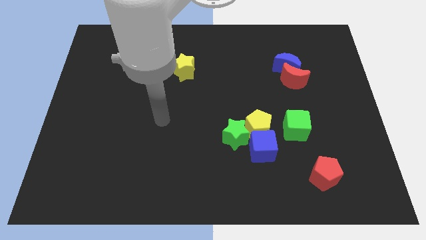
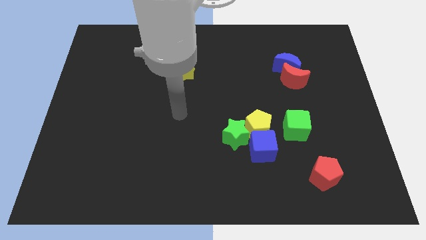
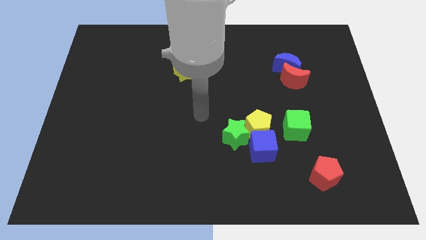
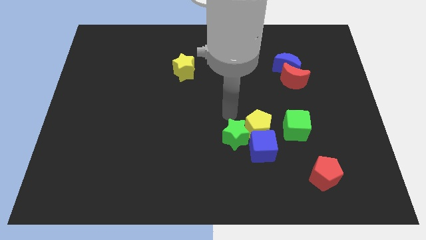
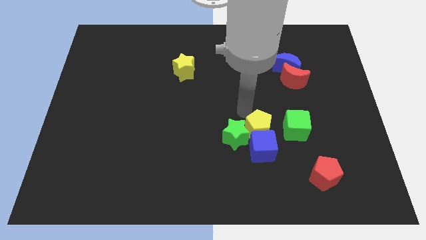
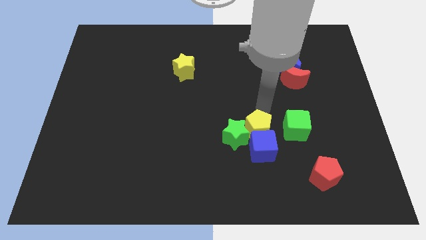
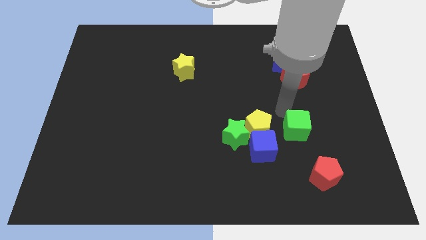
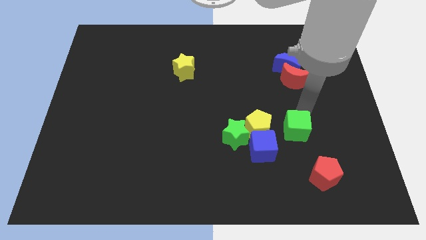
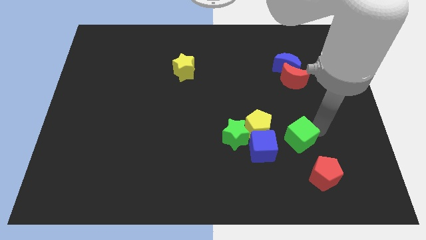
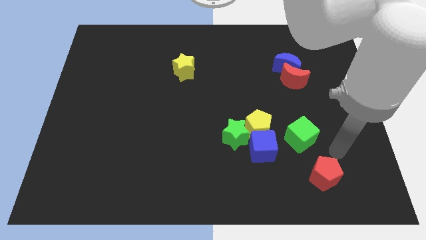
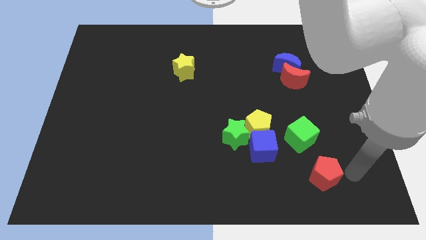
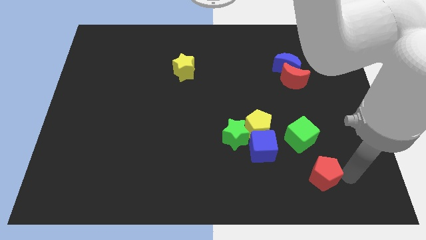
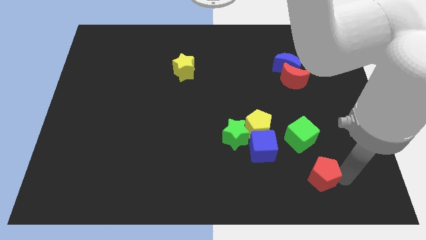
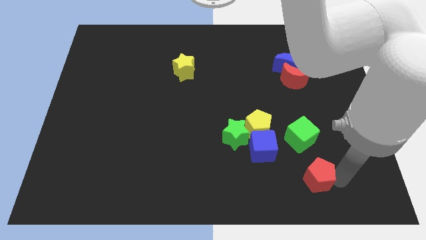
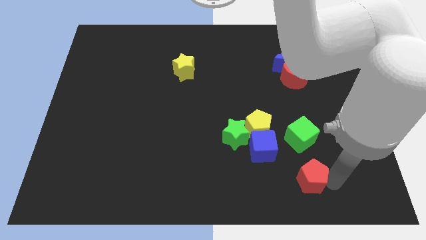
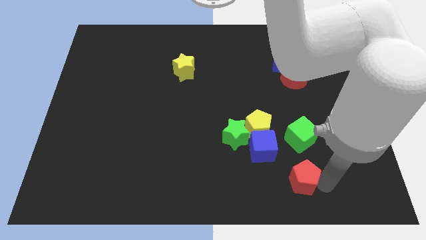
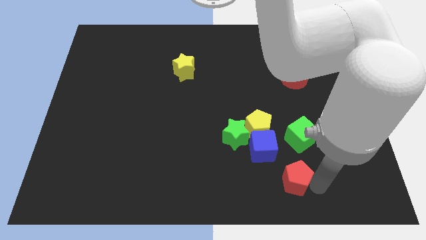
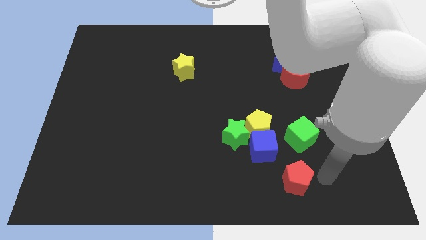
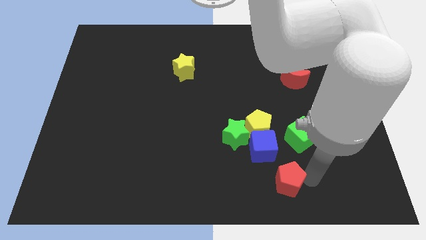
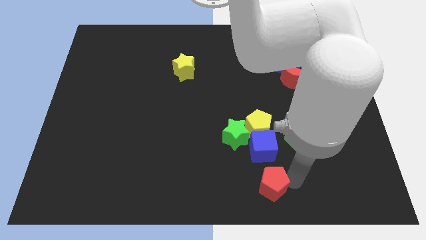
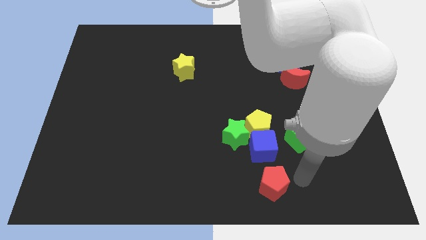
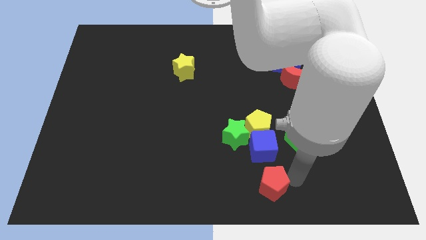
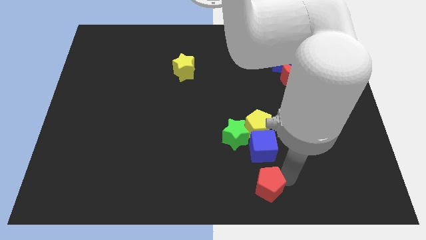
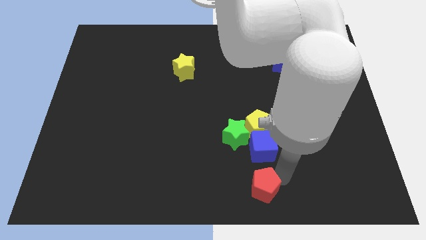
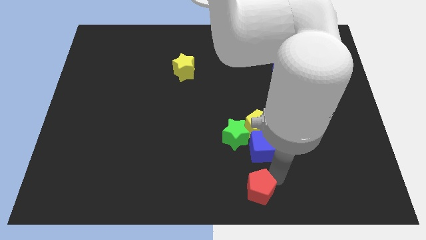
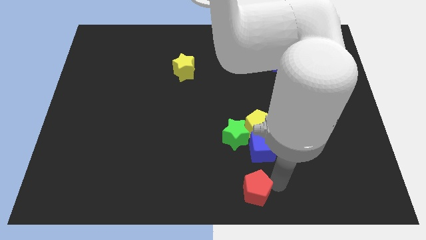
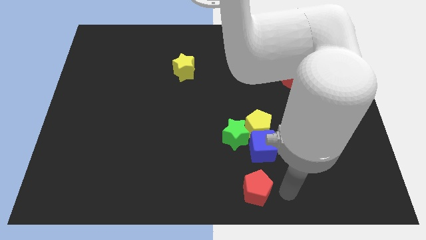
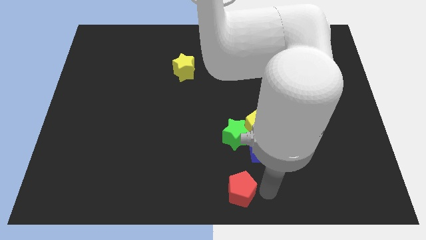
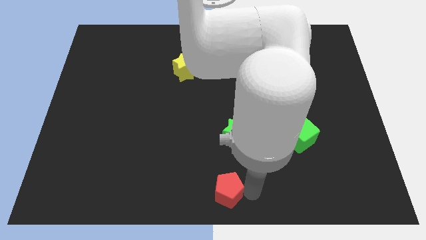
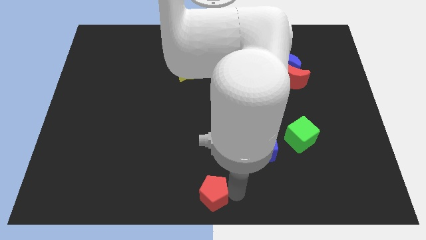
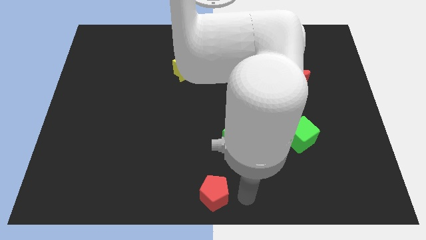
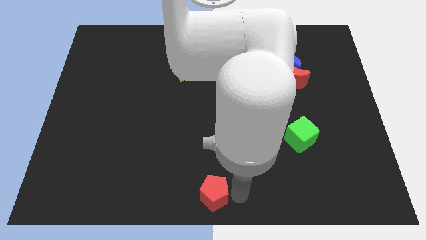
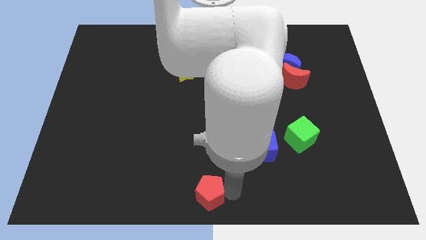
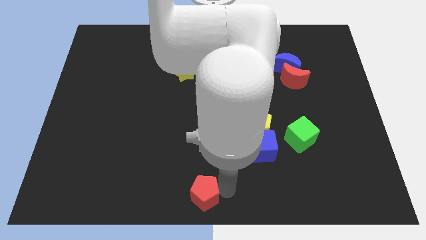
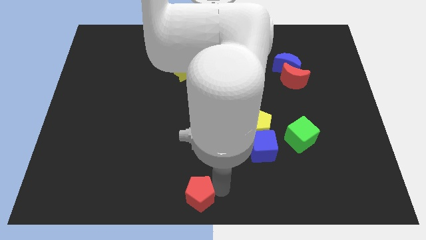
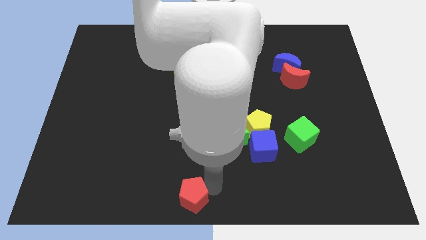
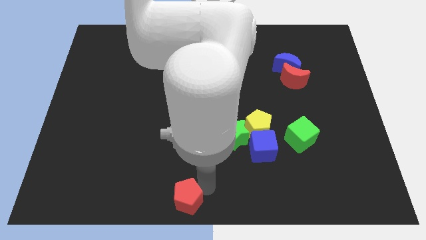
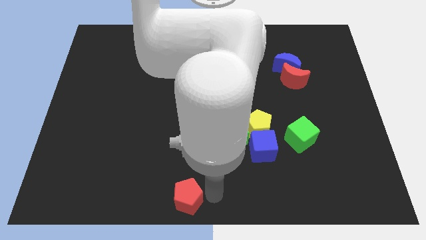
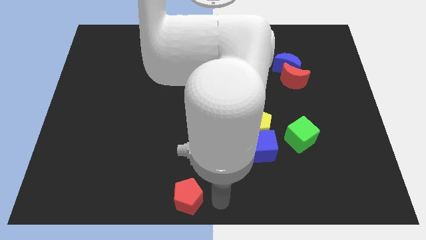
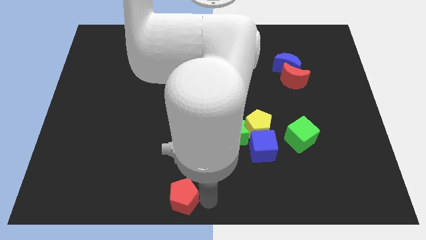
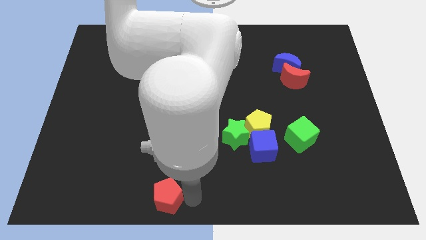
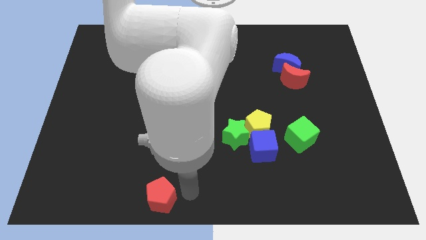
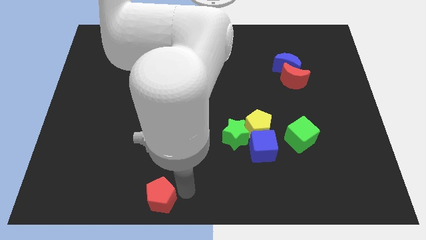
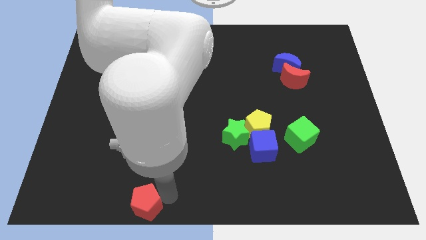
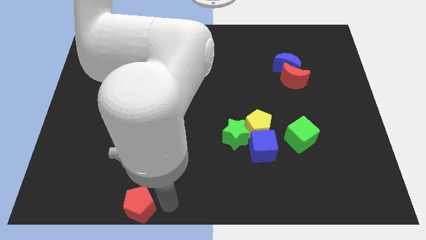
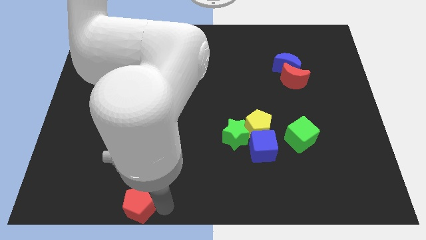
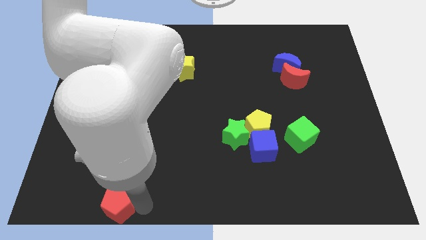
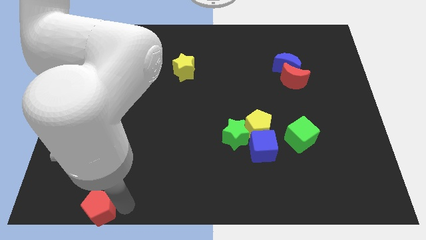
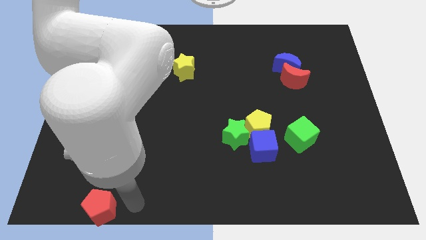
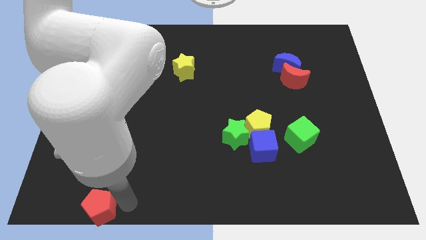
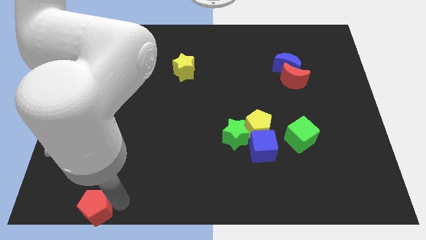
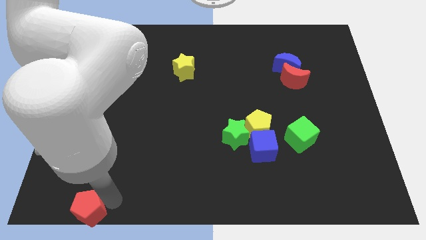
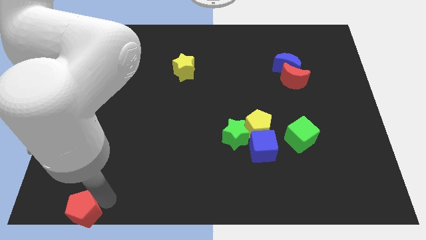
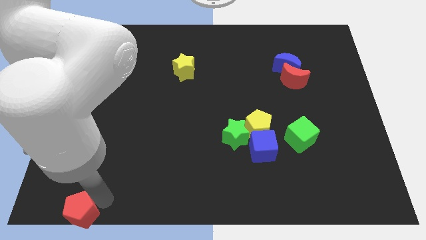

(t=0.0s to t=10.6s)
slide the red pentagon to the bottom left corner

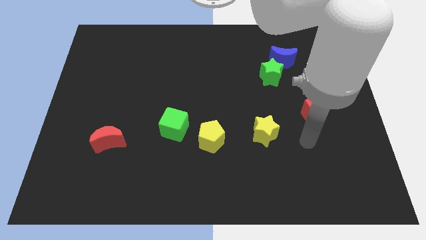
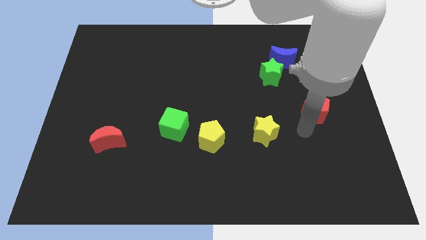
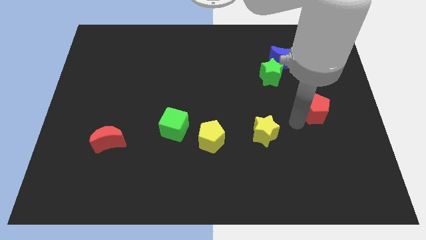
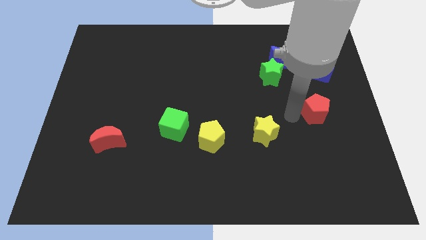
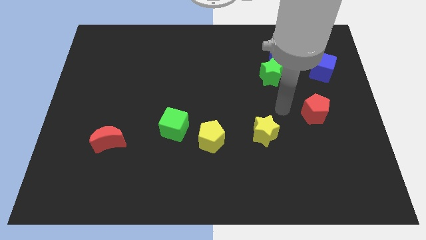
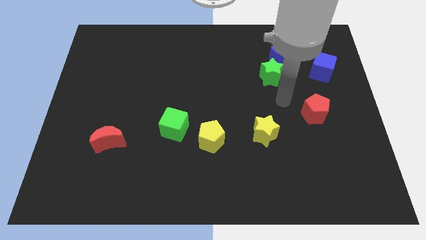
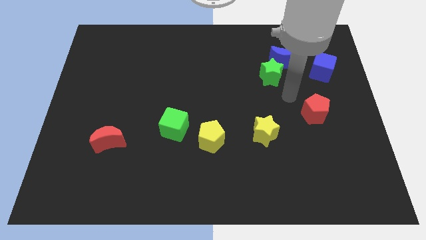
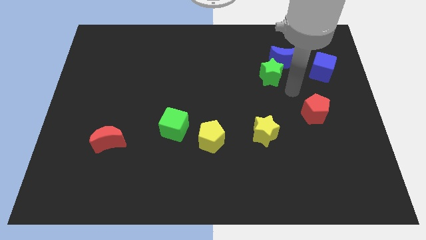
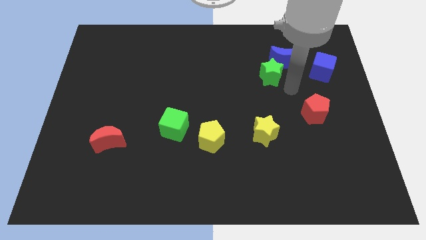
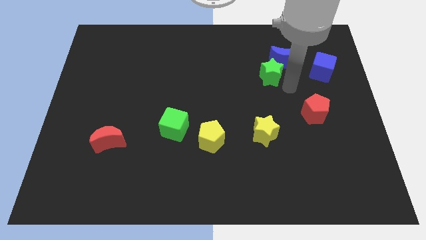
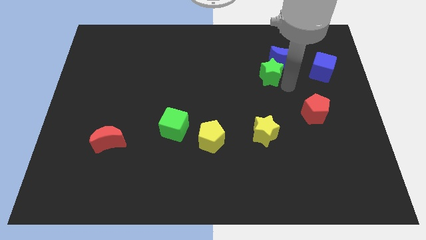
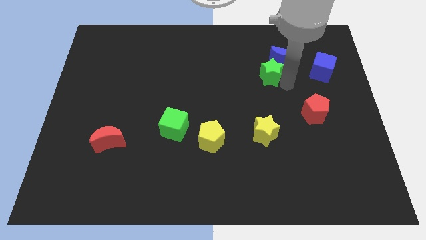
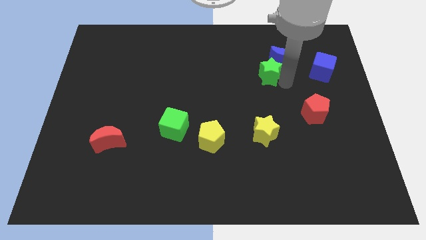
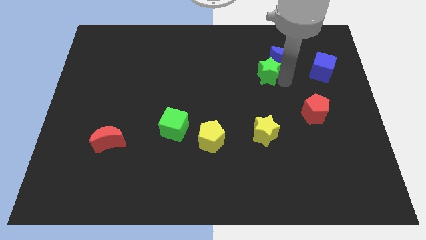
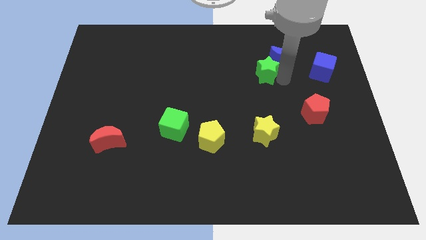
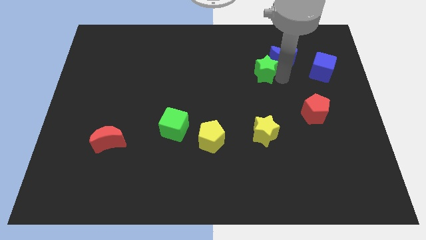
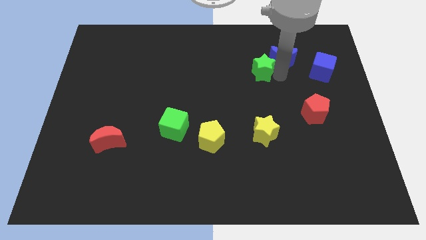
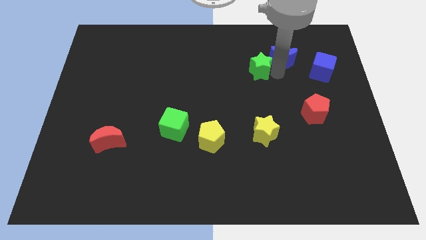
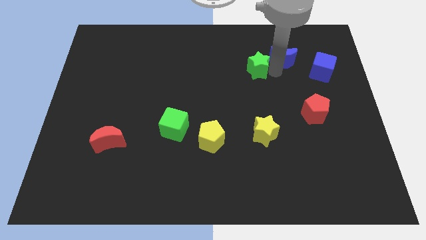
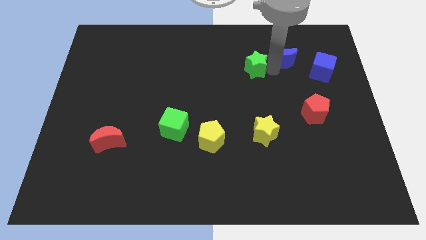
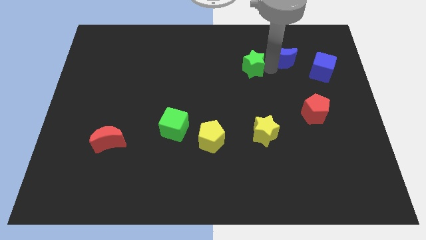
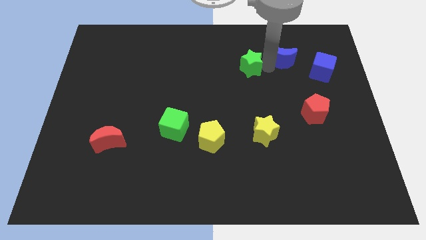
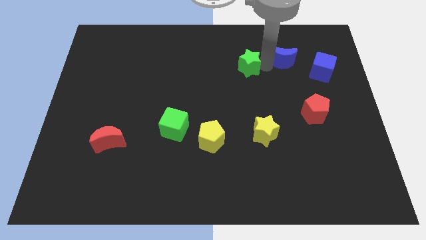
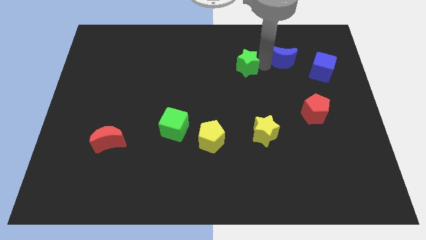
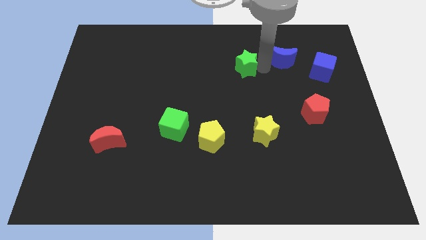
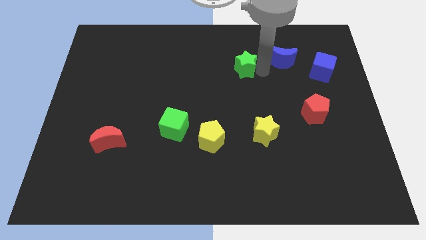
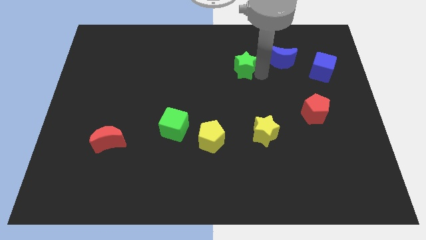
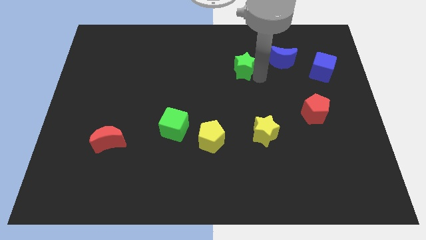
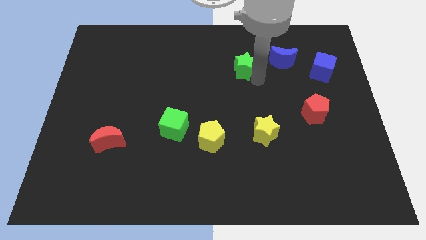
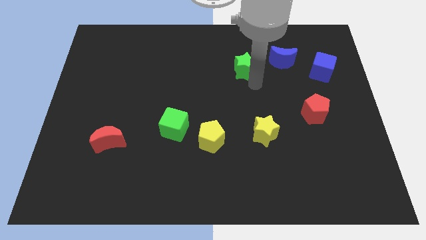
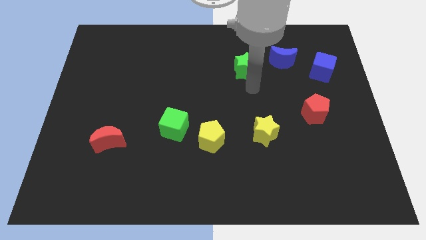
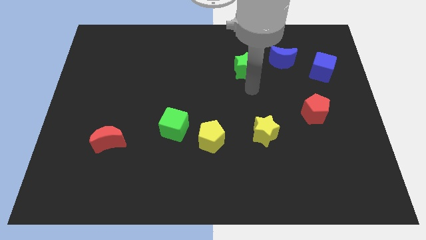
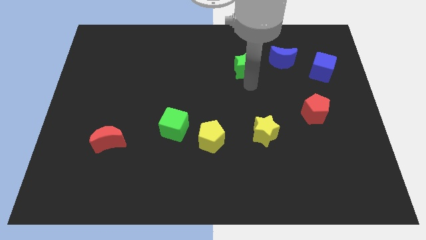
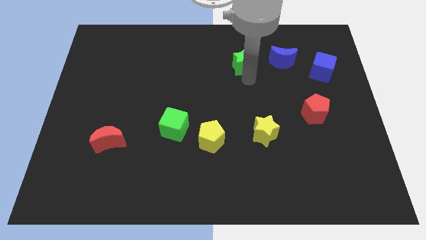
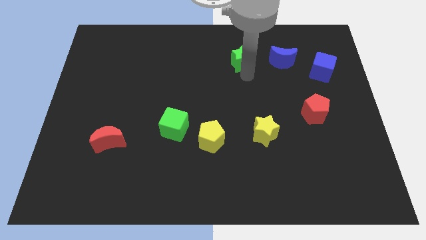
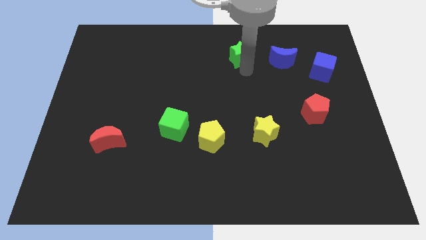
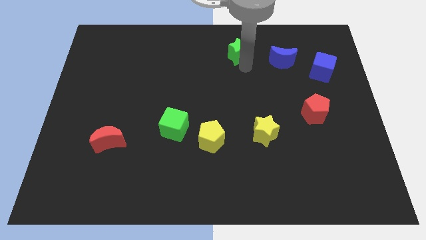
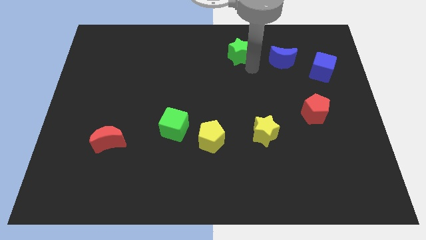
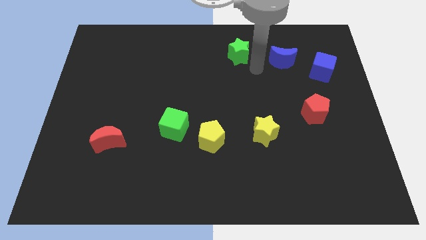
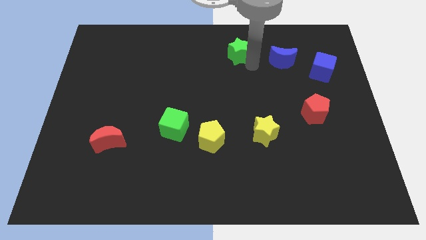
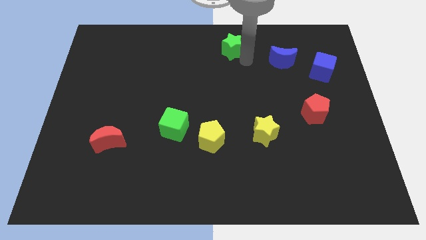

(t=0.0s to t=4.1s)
push the green star to the top side
